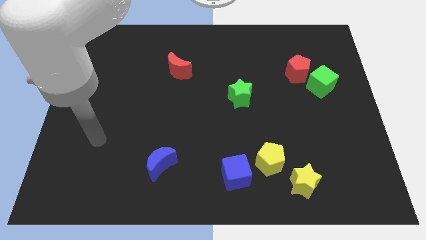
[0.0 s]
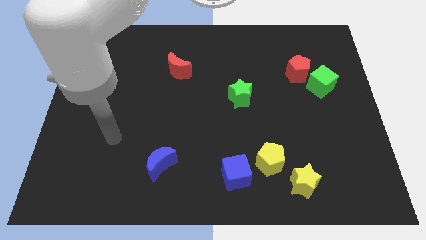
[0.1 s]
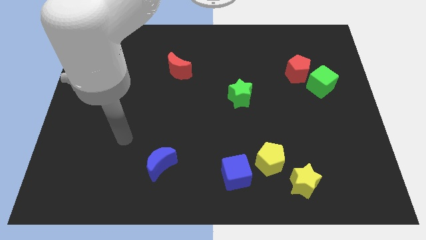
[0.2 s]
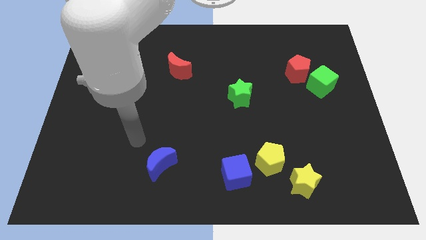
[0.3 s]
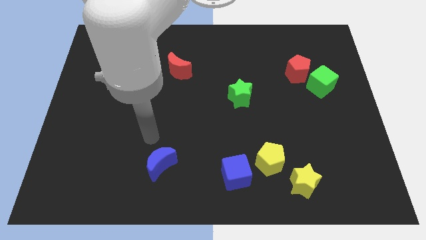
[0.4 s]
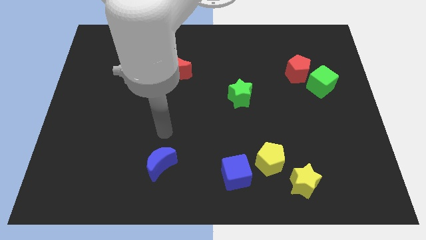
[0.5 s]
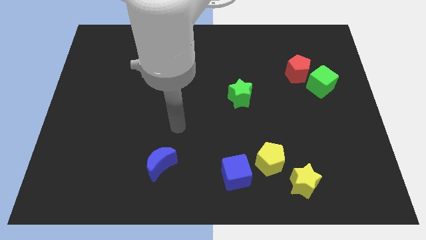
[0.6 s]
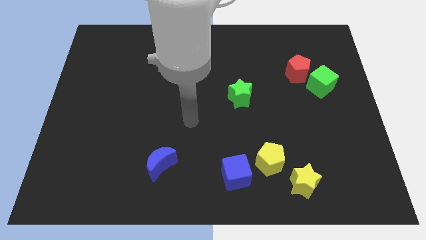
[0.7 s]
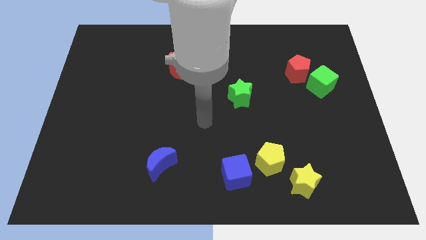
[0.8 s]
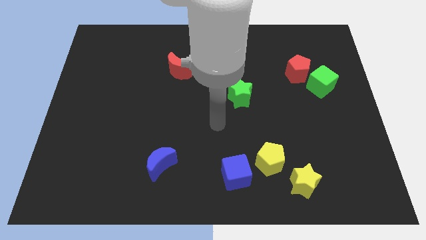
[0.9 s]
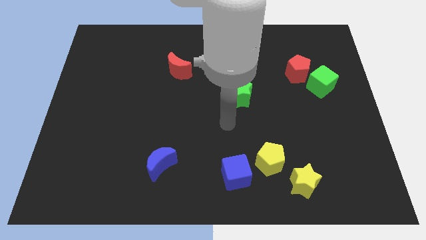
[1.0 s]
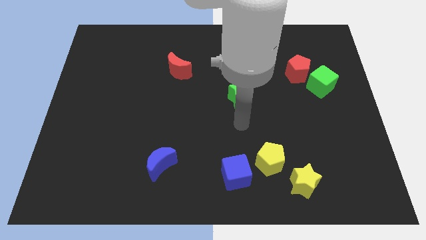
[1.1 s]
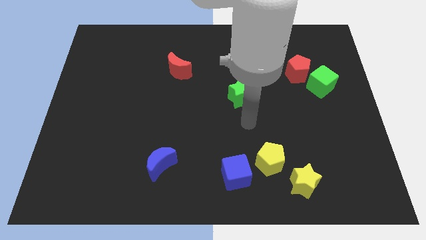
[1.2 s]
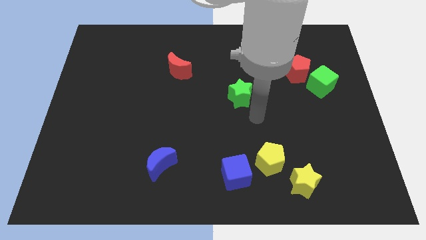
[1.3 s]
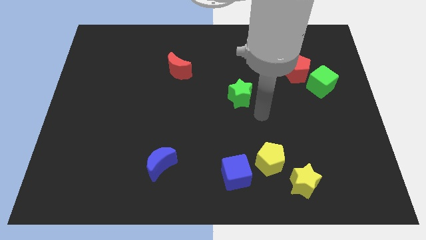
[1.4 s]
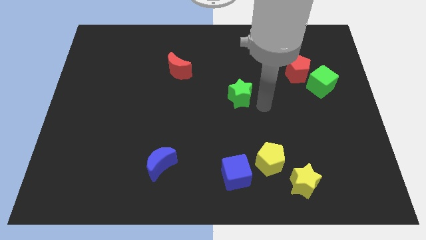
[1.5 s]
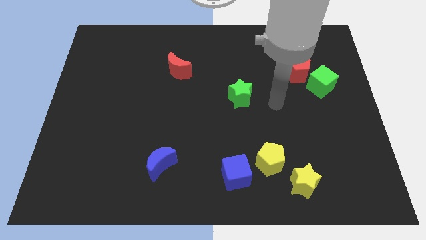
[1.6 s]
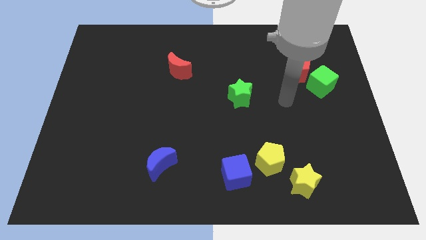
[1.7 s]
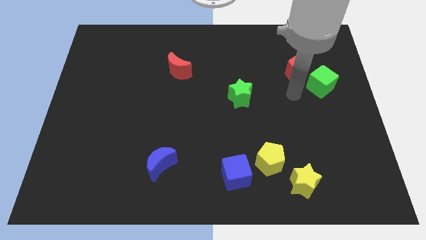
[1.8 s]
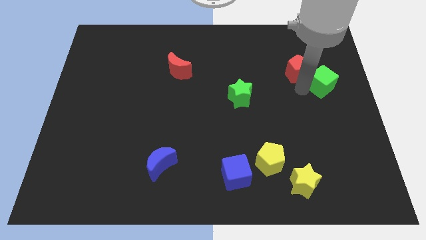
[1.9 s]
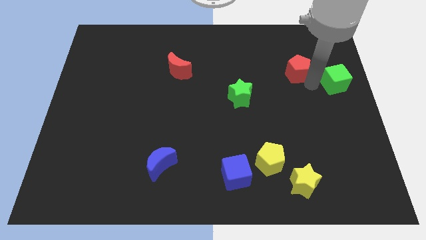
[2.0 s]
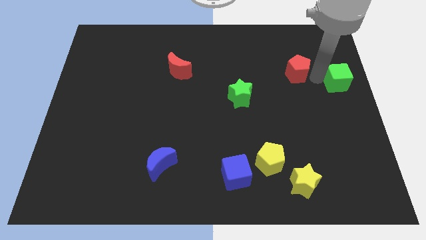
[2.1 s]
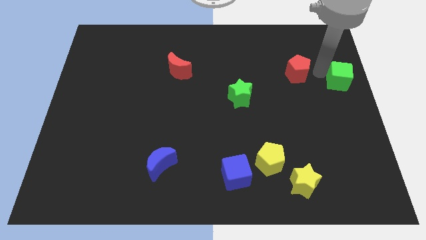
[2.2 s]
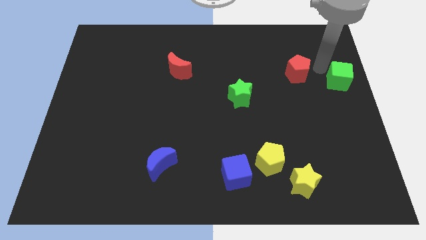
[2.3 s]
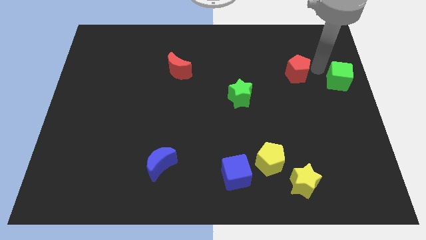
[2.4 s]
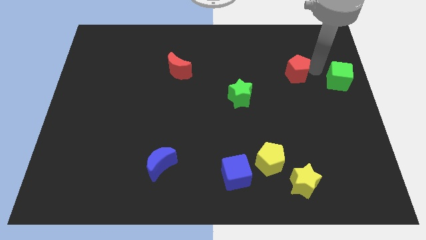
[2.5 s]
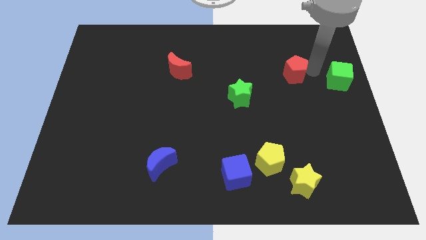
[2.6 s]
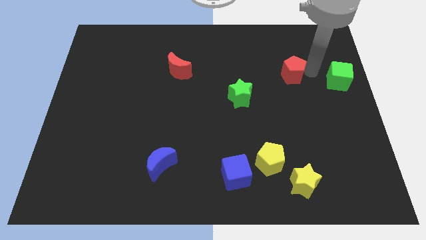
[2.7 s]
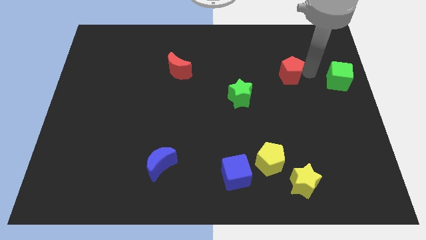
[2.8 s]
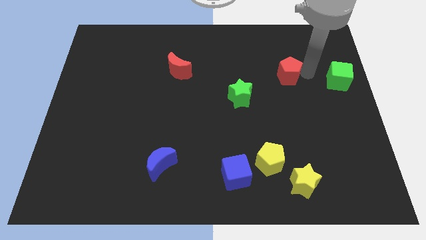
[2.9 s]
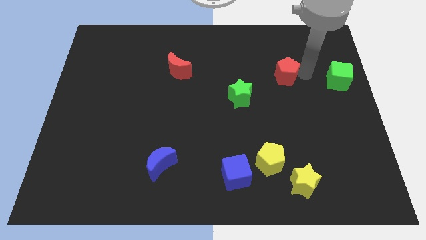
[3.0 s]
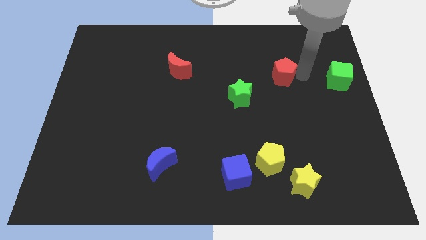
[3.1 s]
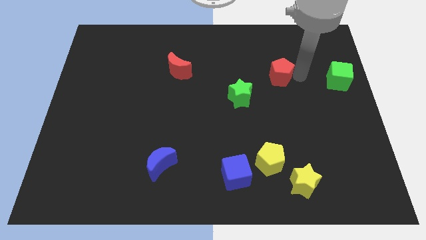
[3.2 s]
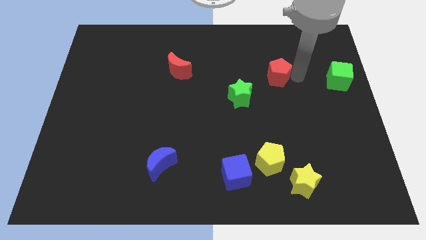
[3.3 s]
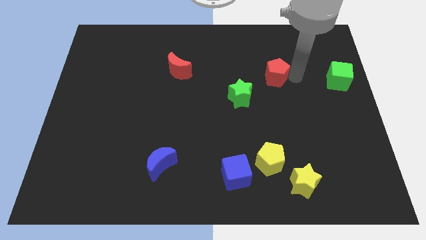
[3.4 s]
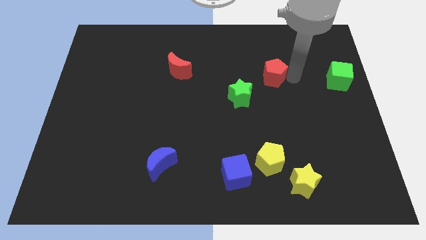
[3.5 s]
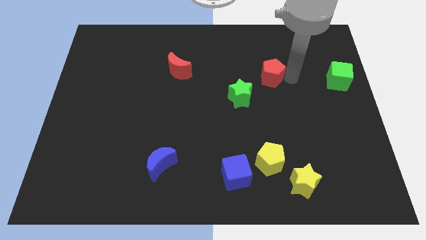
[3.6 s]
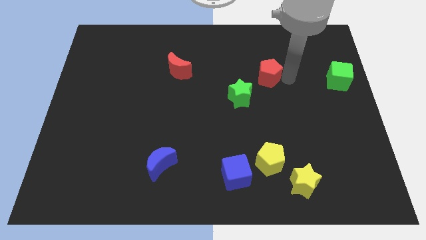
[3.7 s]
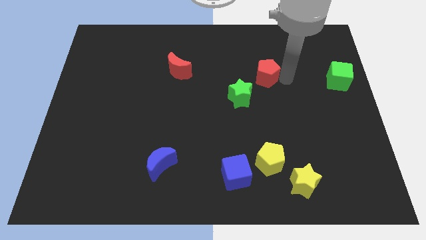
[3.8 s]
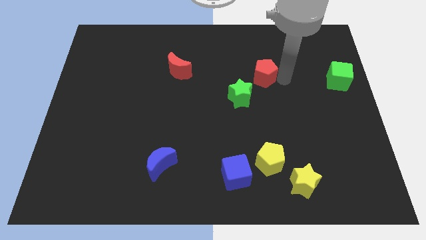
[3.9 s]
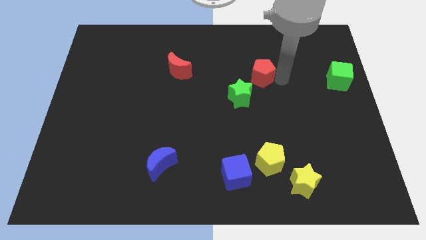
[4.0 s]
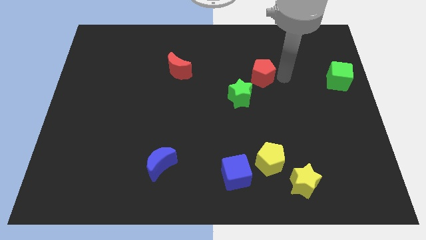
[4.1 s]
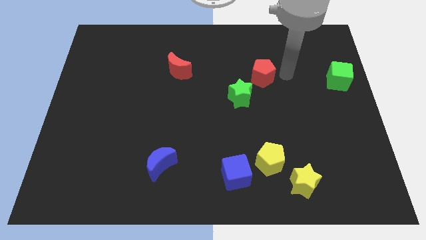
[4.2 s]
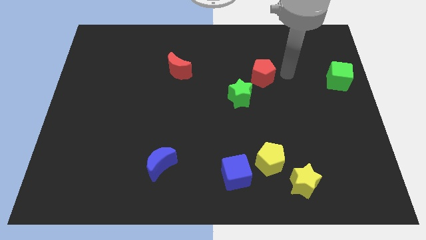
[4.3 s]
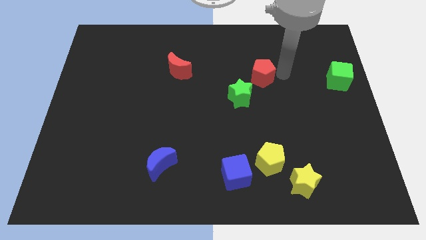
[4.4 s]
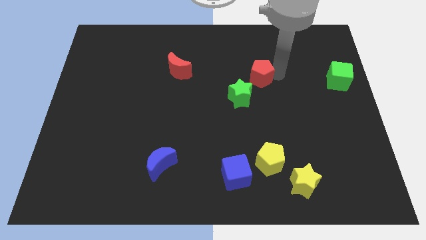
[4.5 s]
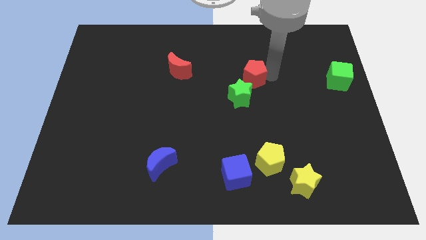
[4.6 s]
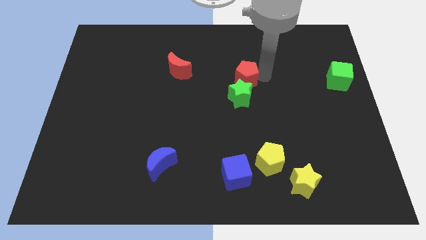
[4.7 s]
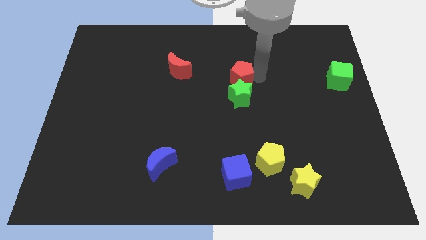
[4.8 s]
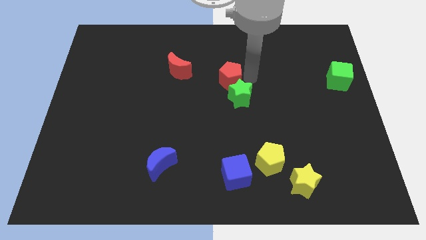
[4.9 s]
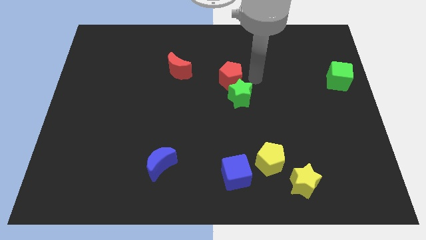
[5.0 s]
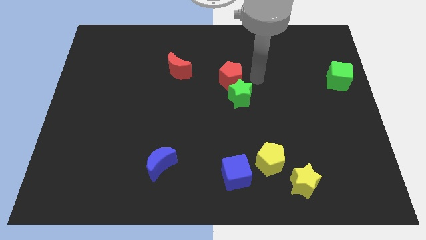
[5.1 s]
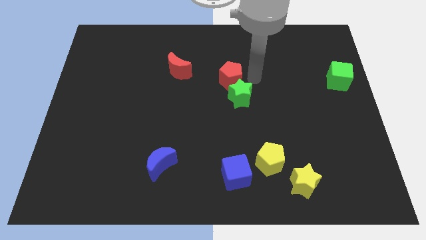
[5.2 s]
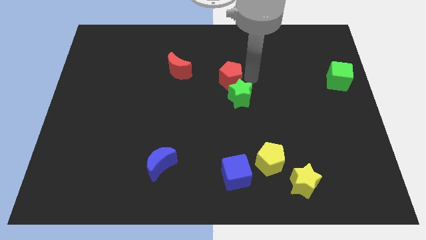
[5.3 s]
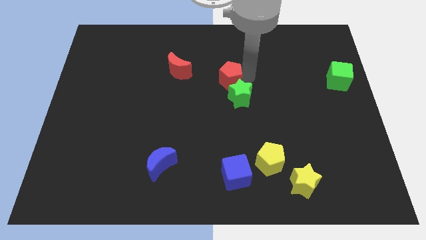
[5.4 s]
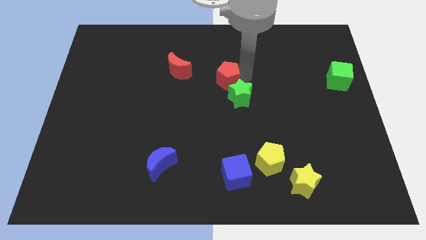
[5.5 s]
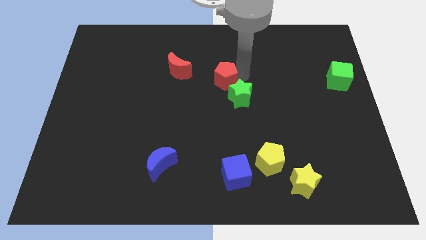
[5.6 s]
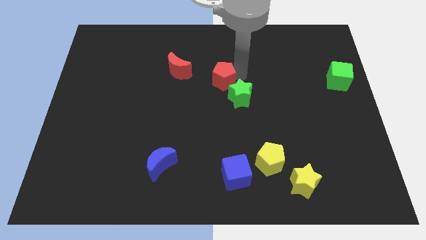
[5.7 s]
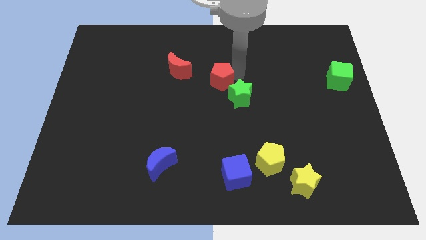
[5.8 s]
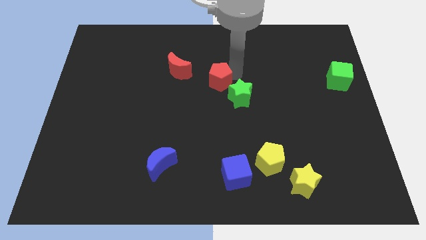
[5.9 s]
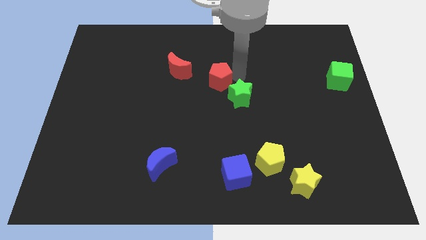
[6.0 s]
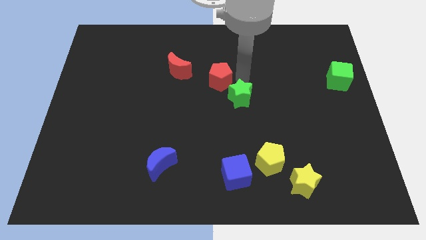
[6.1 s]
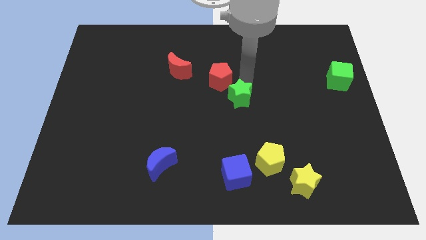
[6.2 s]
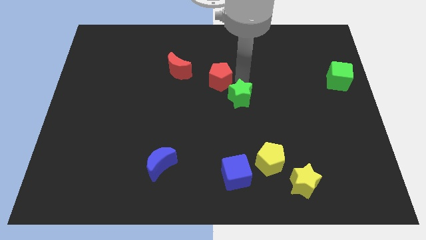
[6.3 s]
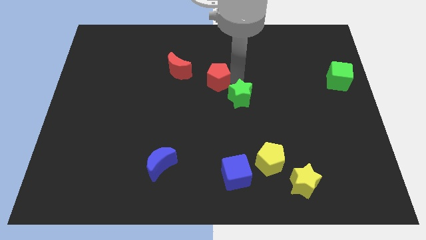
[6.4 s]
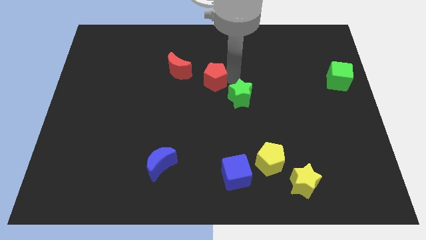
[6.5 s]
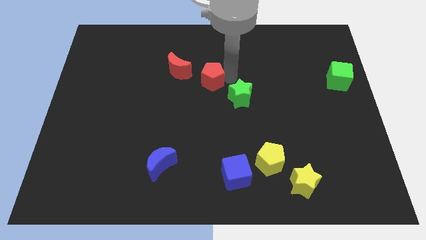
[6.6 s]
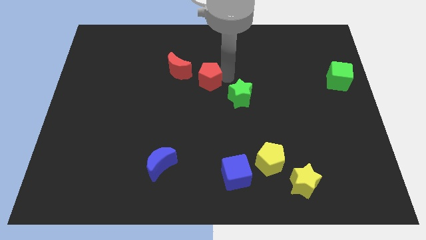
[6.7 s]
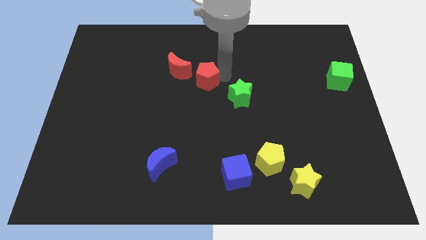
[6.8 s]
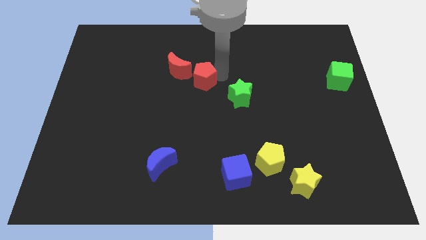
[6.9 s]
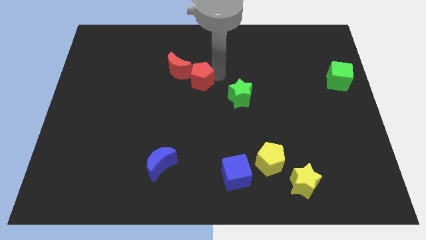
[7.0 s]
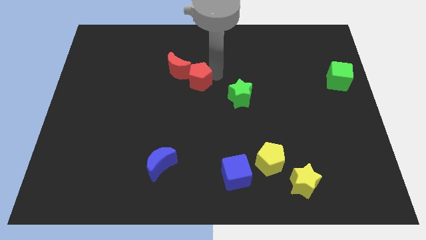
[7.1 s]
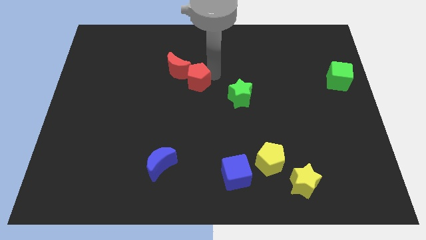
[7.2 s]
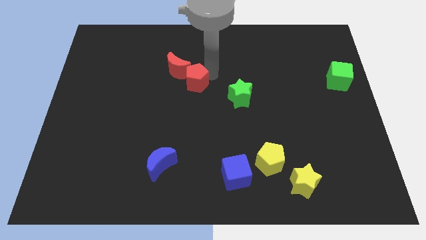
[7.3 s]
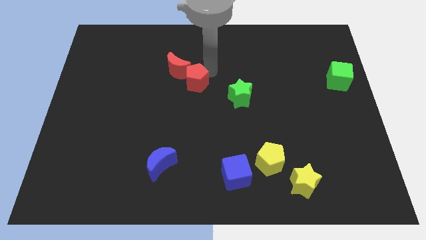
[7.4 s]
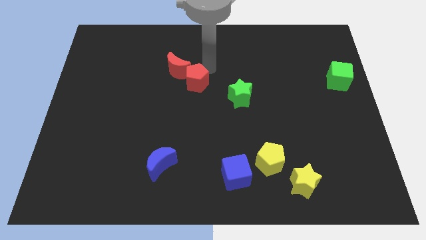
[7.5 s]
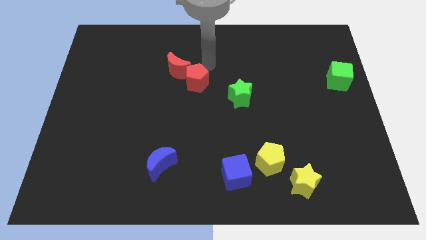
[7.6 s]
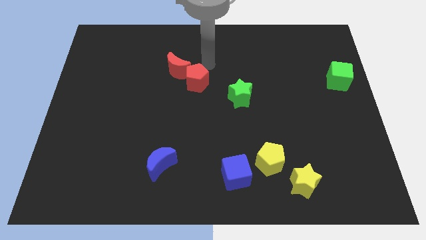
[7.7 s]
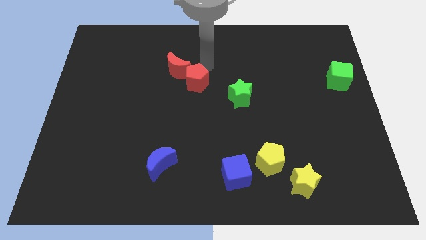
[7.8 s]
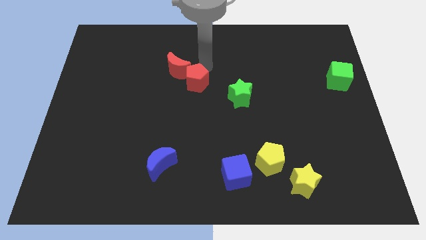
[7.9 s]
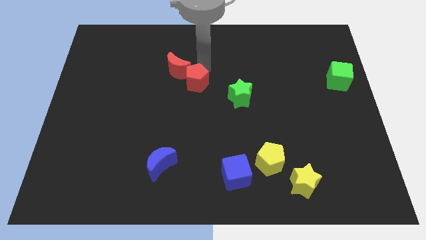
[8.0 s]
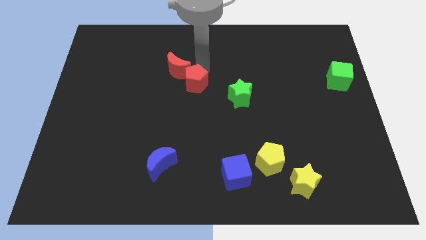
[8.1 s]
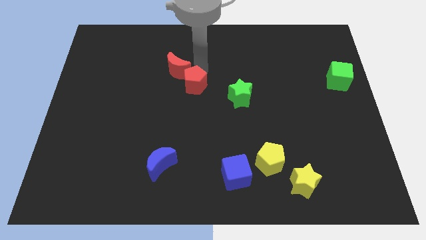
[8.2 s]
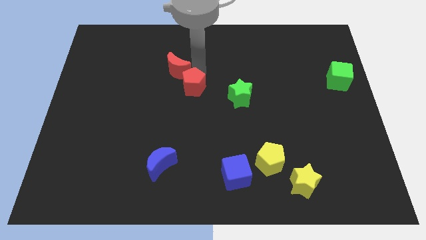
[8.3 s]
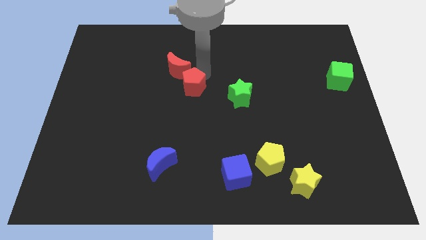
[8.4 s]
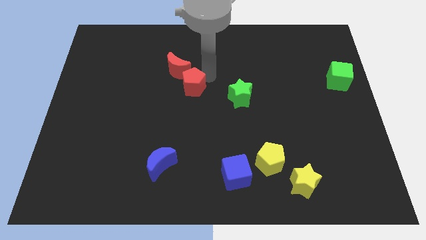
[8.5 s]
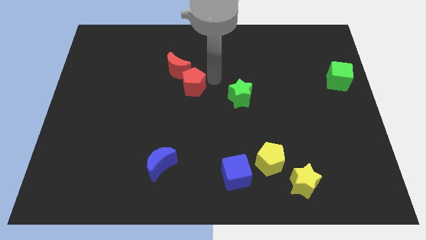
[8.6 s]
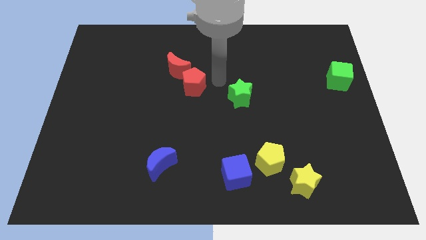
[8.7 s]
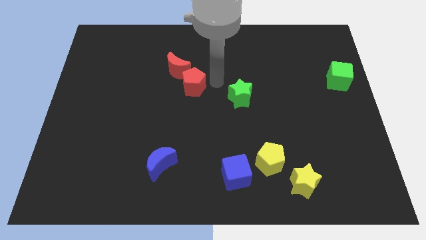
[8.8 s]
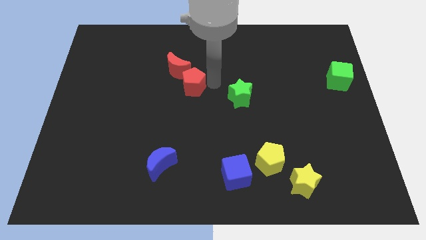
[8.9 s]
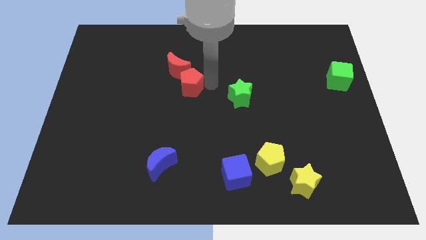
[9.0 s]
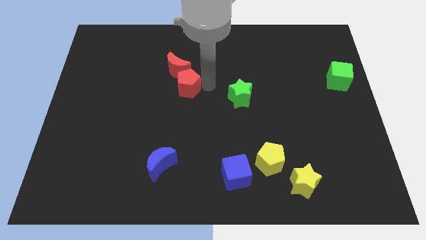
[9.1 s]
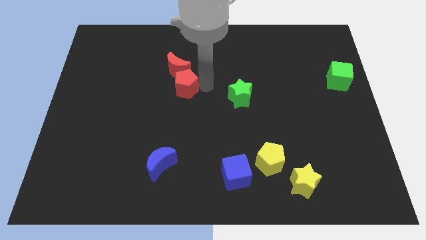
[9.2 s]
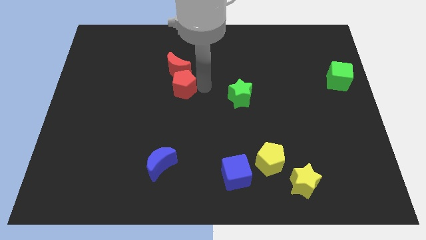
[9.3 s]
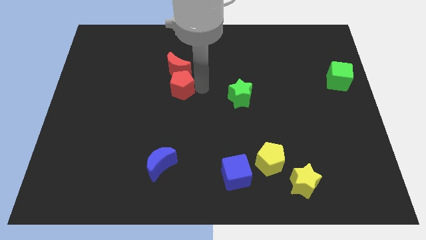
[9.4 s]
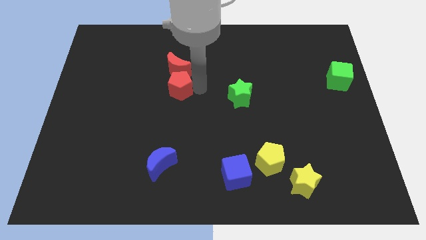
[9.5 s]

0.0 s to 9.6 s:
move the red pentagon to the bottom left of the red moon
